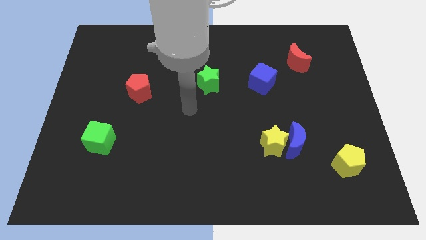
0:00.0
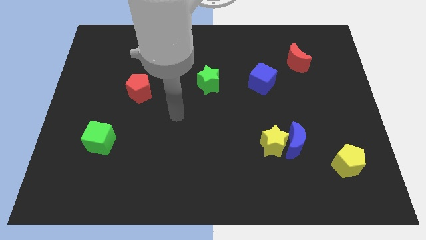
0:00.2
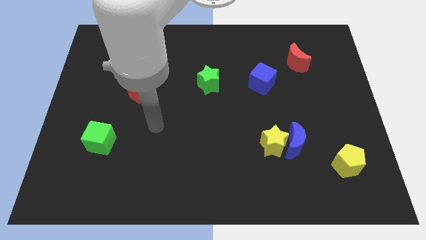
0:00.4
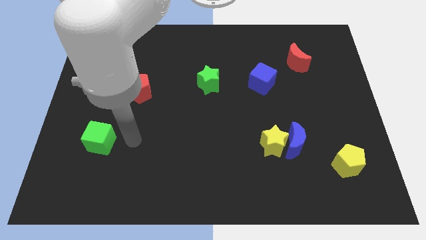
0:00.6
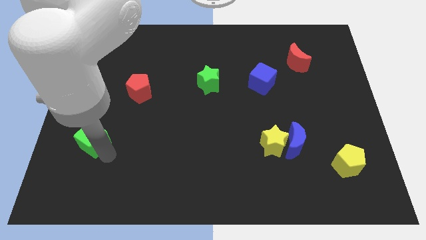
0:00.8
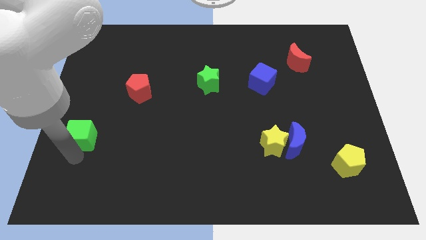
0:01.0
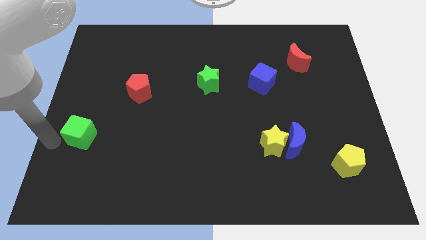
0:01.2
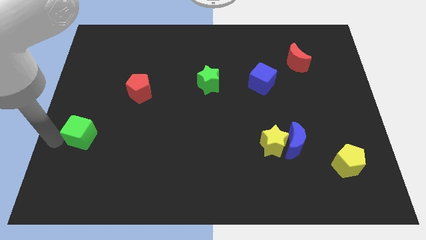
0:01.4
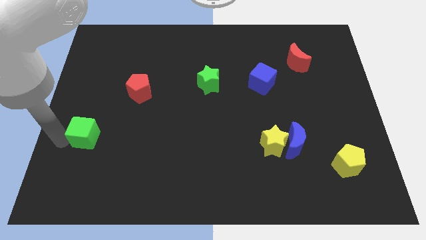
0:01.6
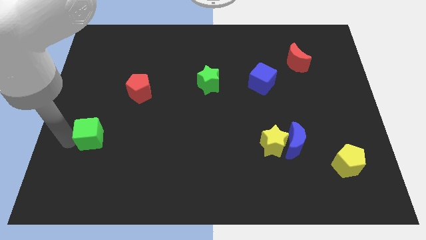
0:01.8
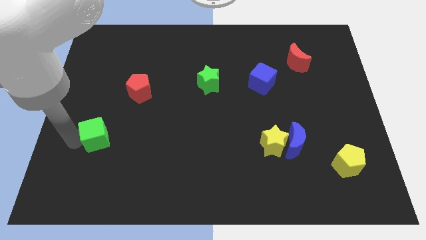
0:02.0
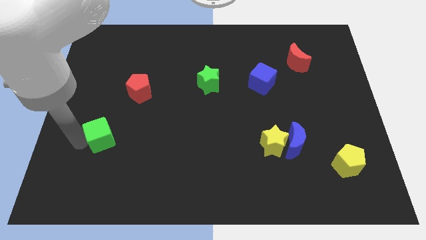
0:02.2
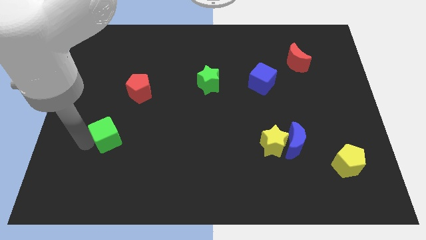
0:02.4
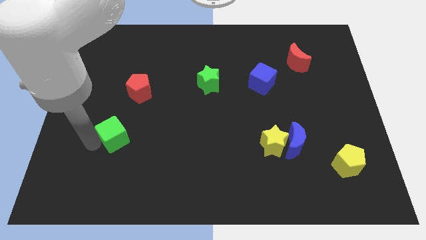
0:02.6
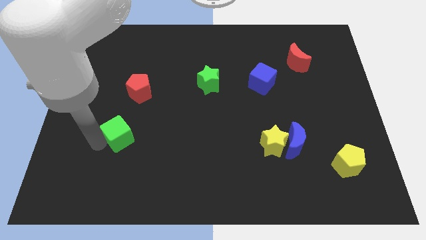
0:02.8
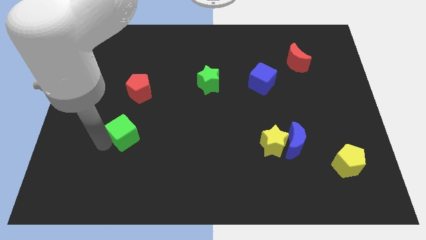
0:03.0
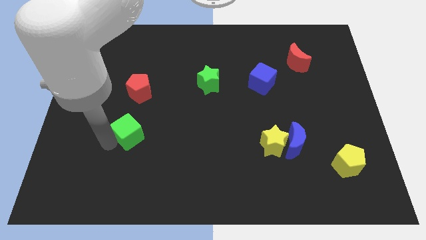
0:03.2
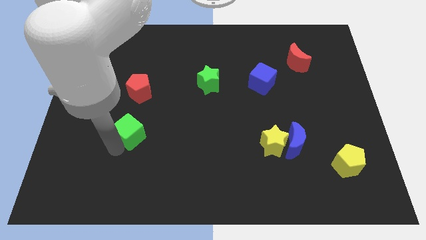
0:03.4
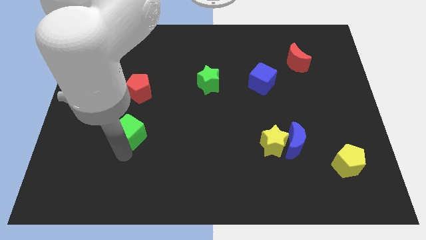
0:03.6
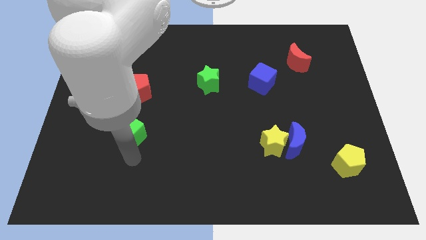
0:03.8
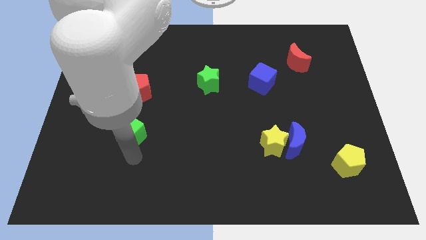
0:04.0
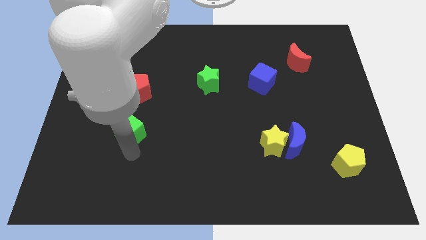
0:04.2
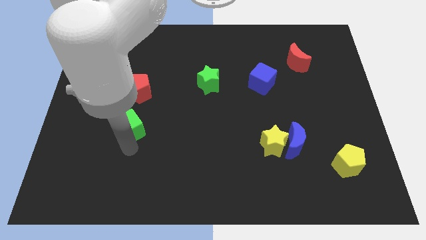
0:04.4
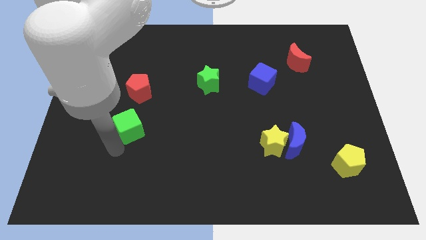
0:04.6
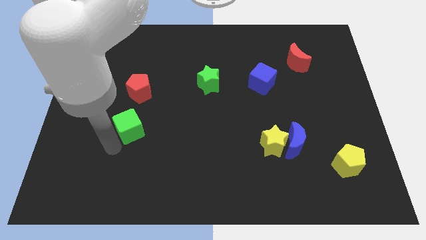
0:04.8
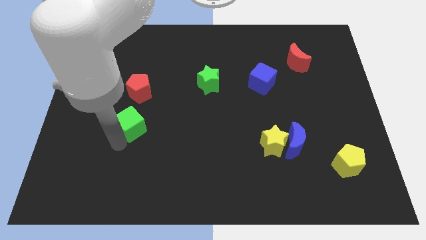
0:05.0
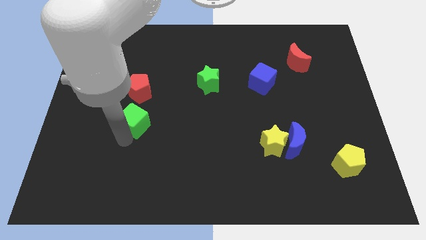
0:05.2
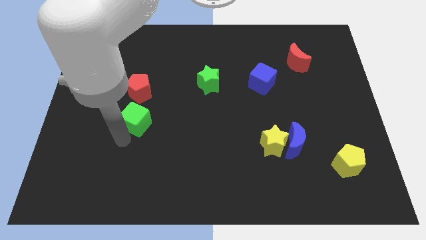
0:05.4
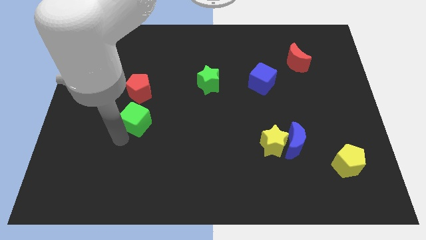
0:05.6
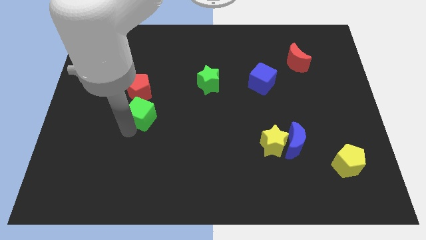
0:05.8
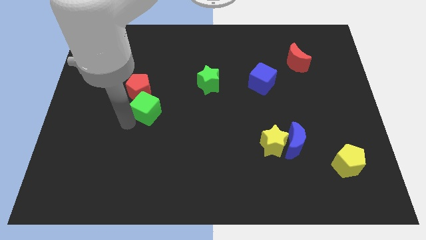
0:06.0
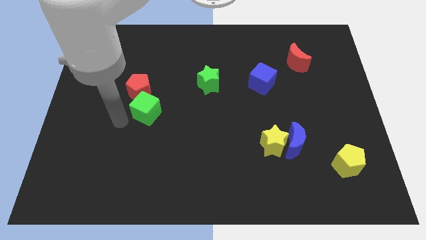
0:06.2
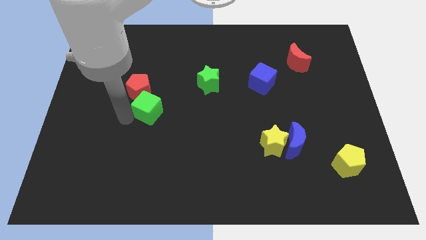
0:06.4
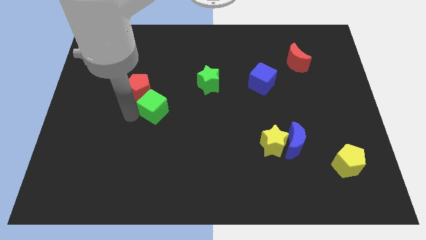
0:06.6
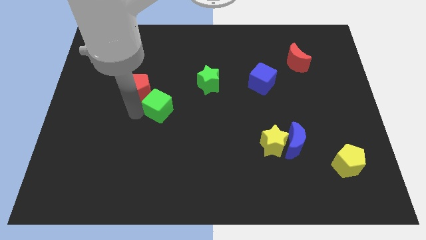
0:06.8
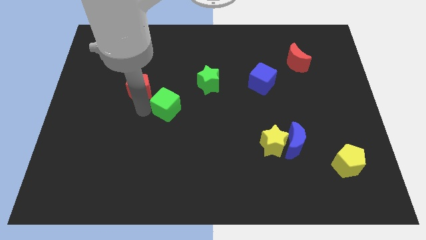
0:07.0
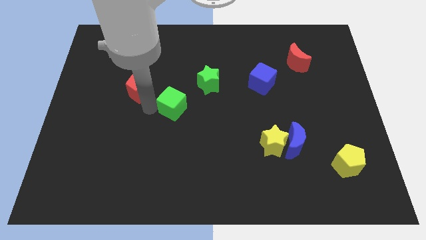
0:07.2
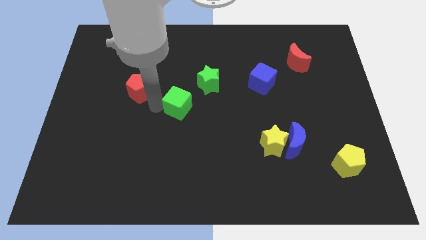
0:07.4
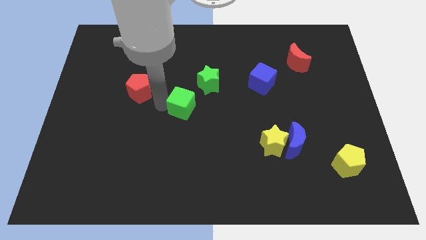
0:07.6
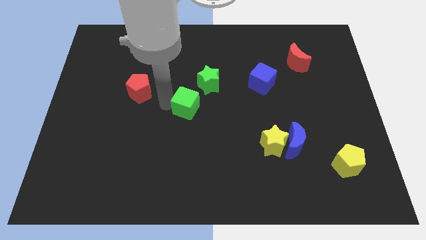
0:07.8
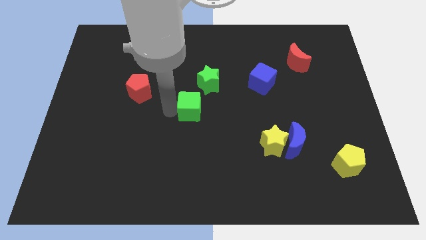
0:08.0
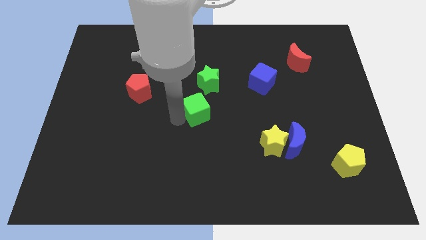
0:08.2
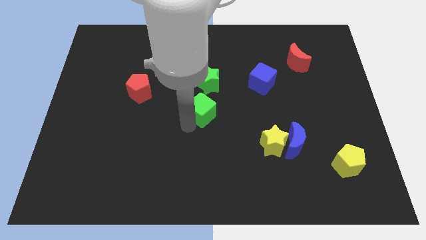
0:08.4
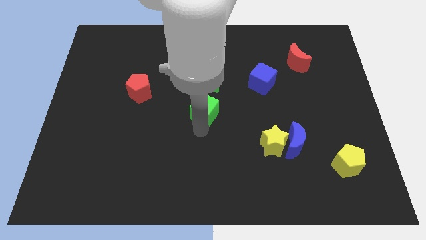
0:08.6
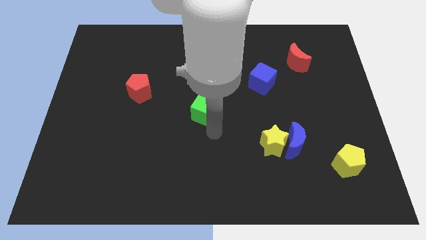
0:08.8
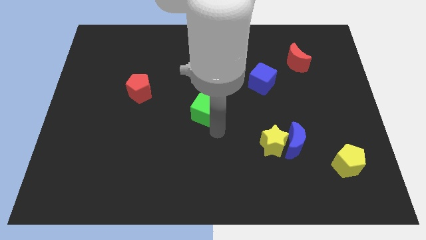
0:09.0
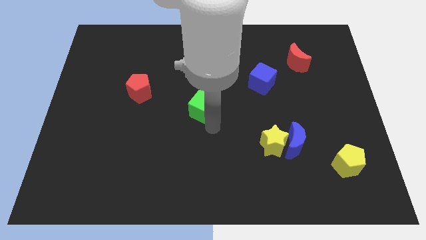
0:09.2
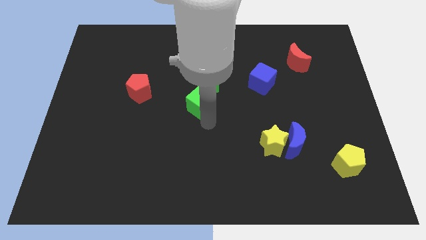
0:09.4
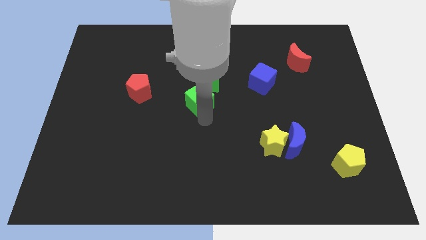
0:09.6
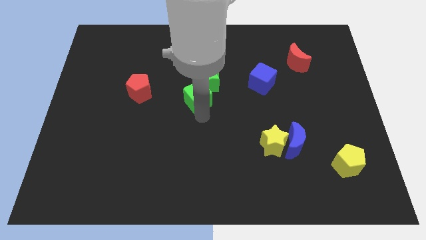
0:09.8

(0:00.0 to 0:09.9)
slide the green cube to the green star

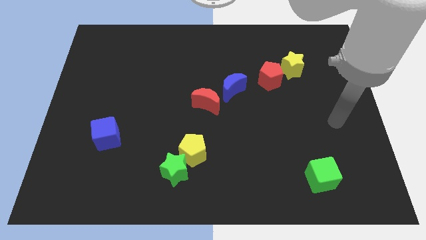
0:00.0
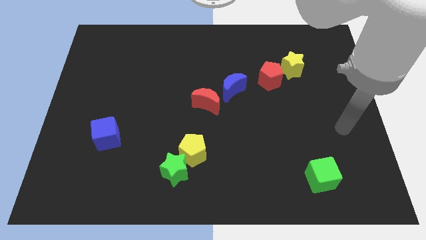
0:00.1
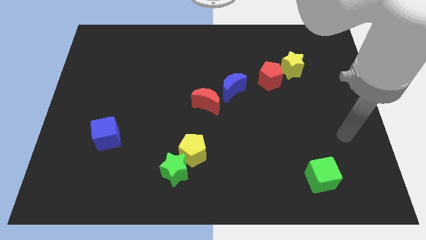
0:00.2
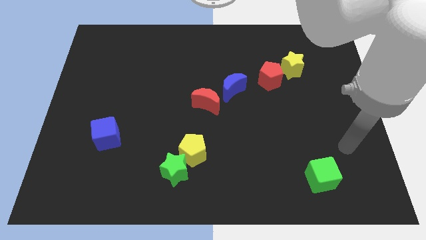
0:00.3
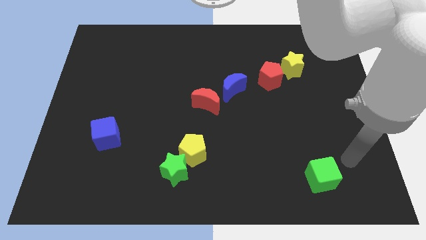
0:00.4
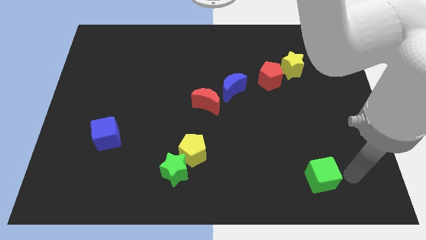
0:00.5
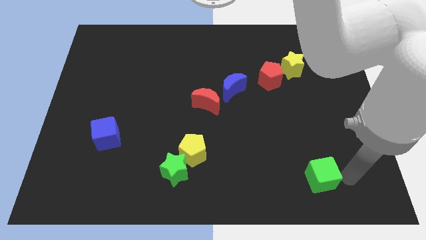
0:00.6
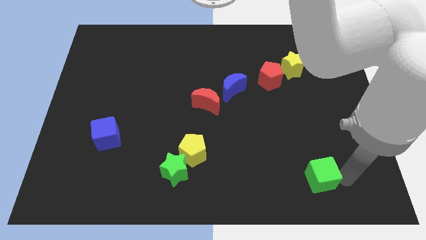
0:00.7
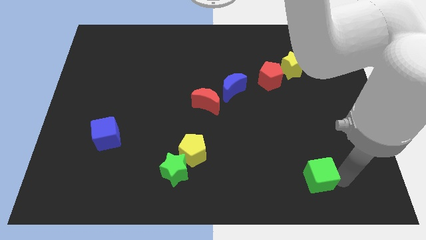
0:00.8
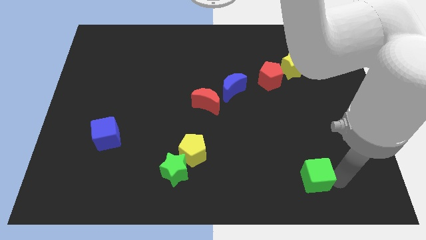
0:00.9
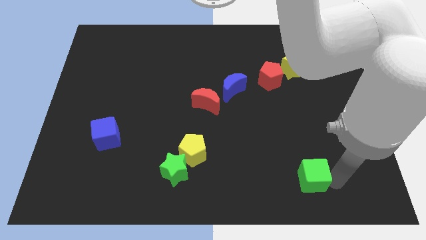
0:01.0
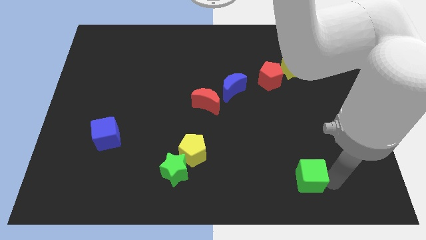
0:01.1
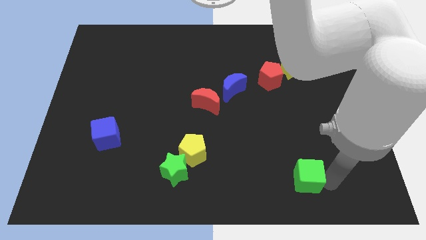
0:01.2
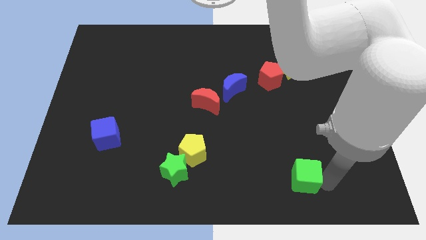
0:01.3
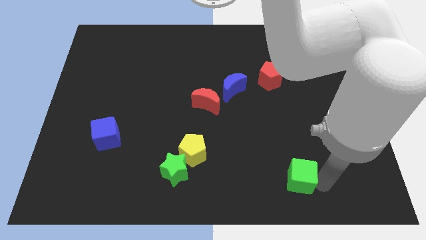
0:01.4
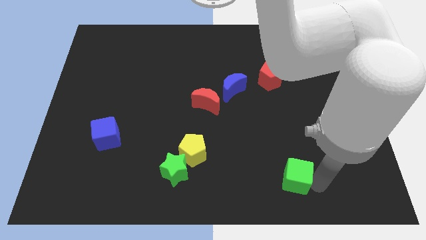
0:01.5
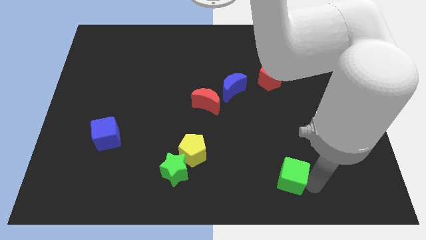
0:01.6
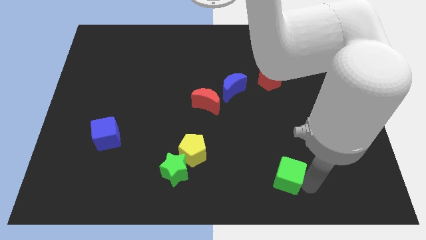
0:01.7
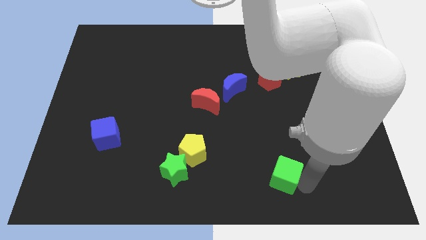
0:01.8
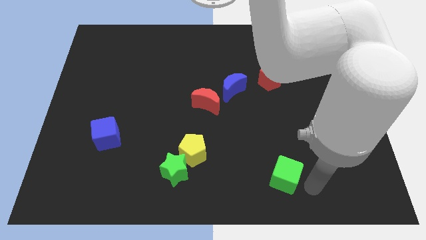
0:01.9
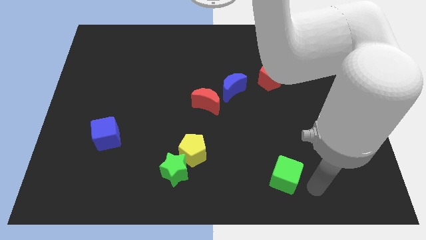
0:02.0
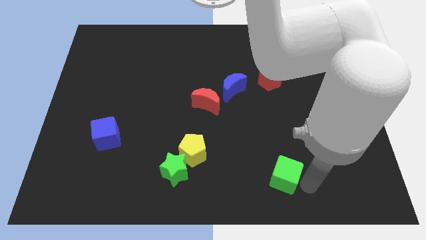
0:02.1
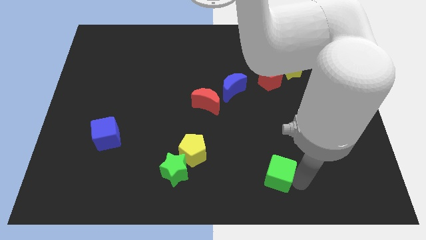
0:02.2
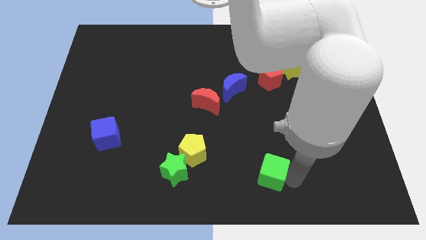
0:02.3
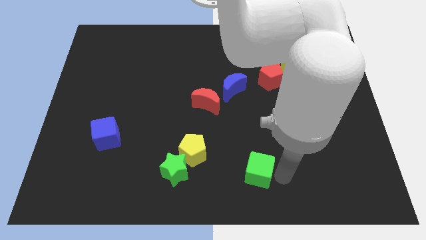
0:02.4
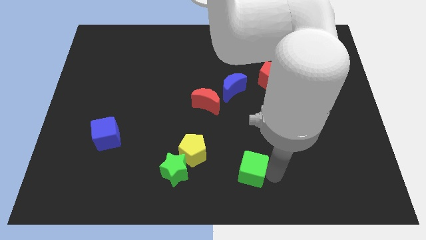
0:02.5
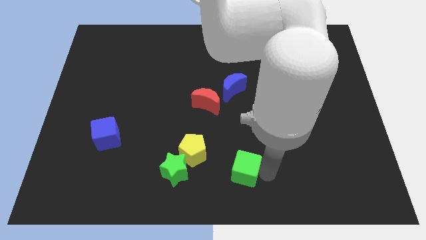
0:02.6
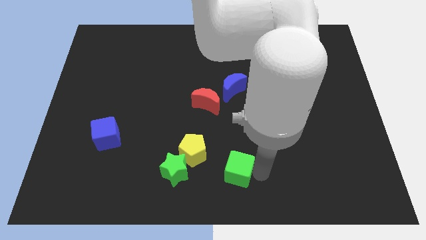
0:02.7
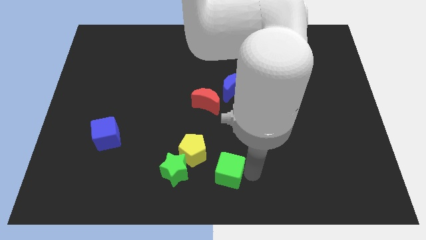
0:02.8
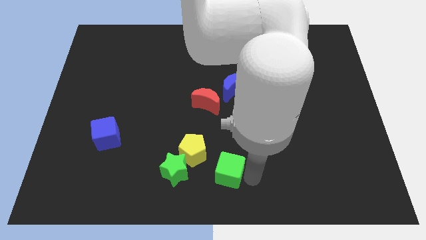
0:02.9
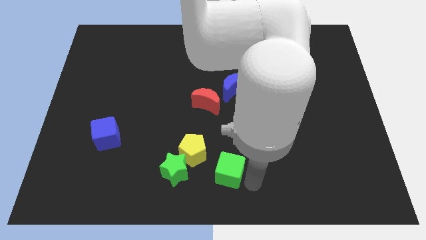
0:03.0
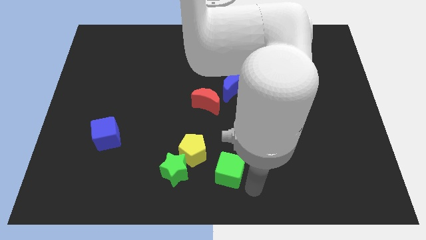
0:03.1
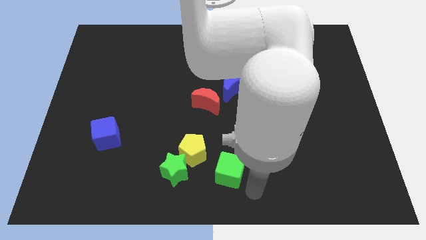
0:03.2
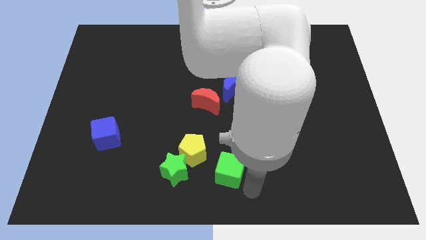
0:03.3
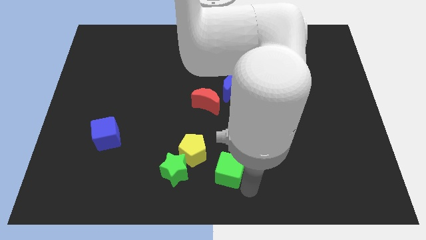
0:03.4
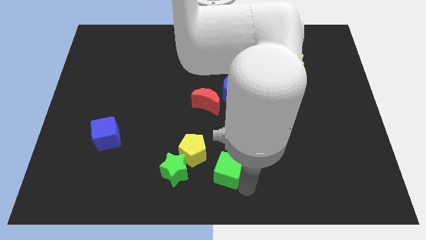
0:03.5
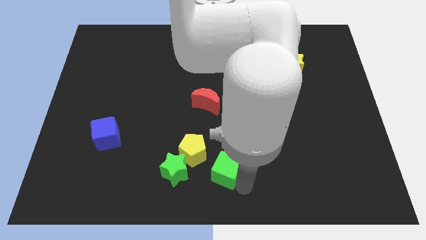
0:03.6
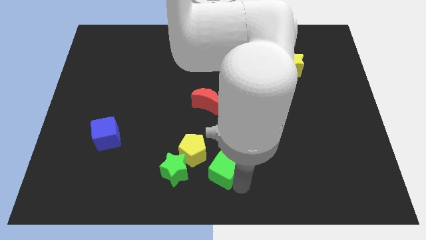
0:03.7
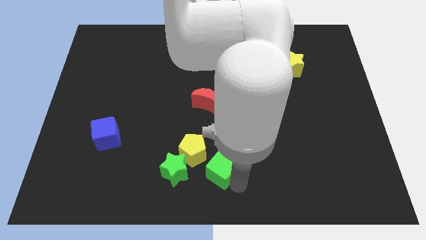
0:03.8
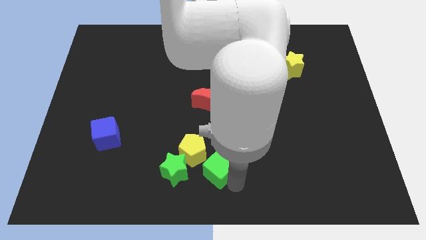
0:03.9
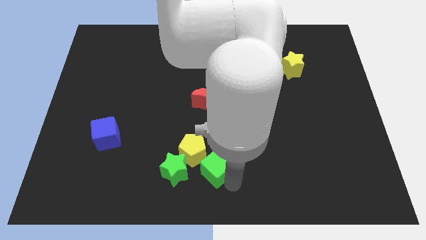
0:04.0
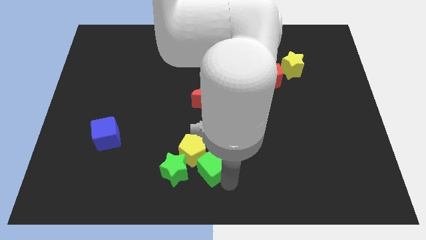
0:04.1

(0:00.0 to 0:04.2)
slide the green cube next to the yellow pentagon
